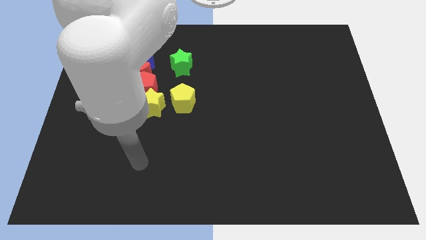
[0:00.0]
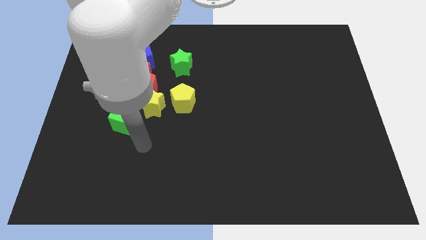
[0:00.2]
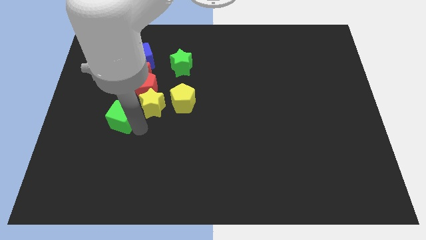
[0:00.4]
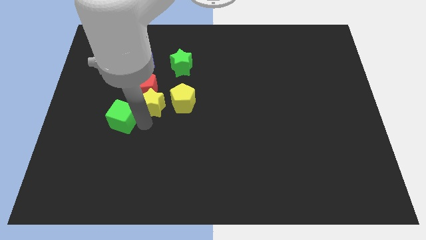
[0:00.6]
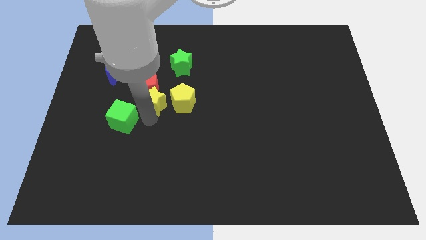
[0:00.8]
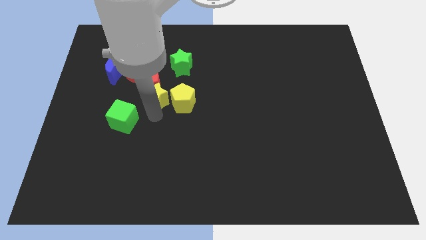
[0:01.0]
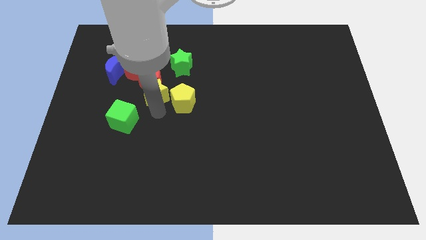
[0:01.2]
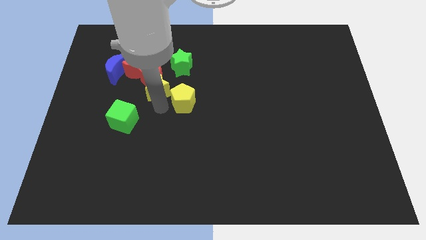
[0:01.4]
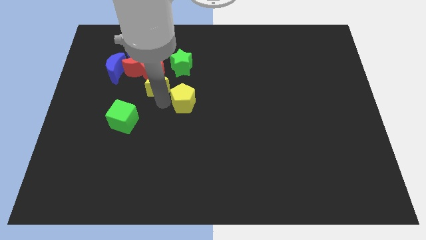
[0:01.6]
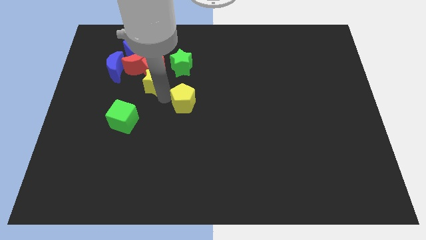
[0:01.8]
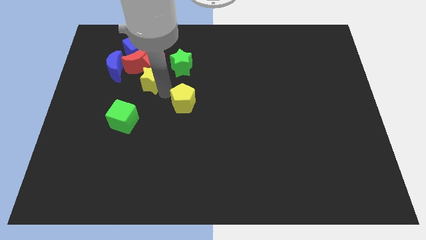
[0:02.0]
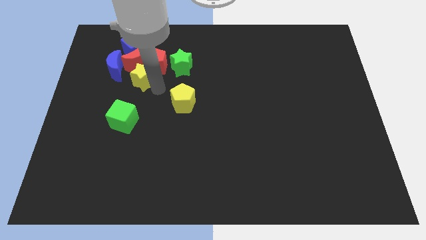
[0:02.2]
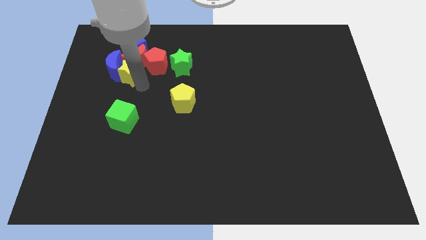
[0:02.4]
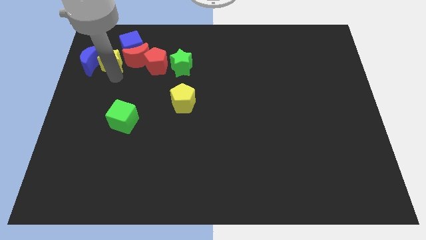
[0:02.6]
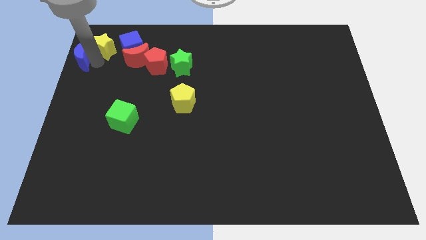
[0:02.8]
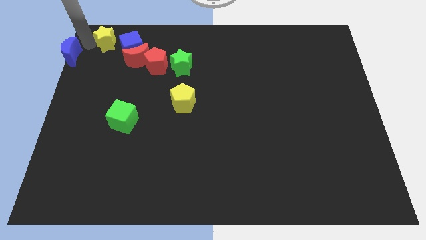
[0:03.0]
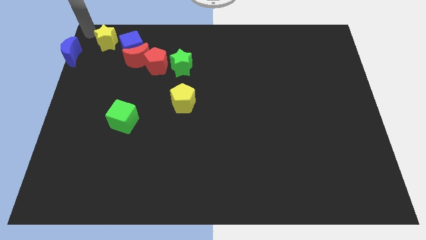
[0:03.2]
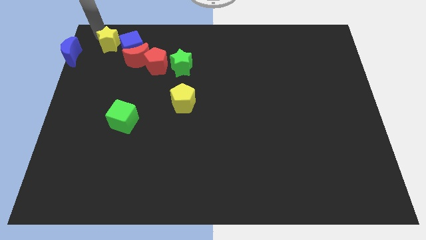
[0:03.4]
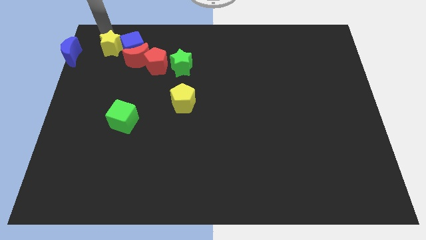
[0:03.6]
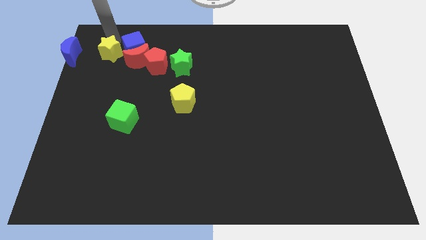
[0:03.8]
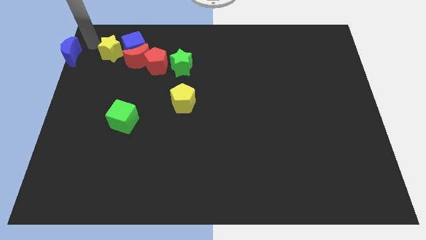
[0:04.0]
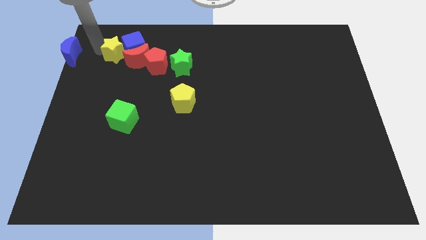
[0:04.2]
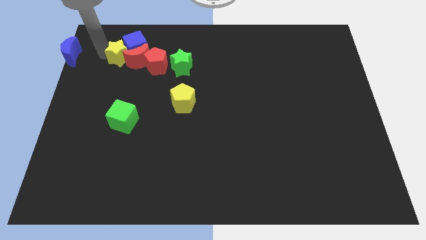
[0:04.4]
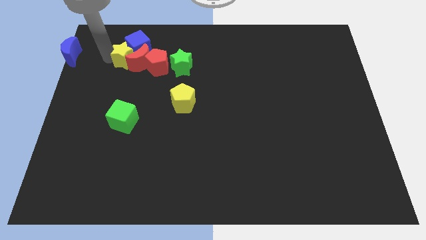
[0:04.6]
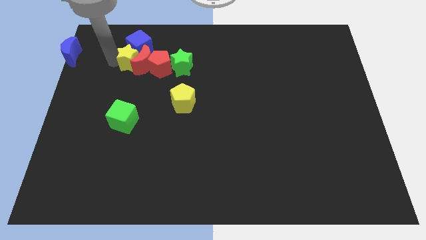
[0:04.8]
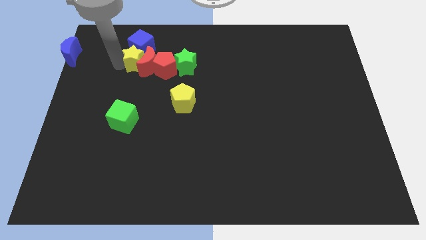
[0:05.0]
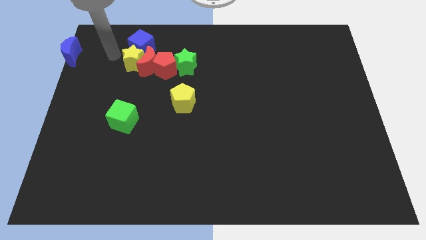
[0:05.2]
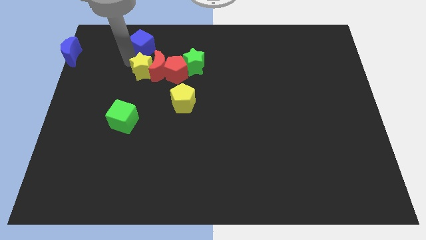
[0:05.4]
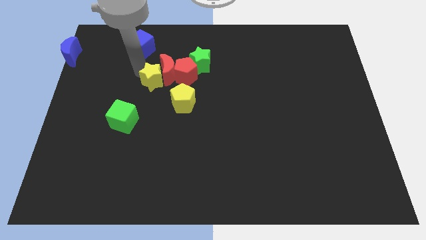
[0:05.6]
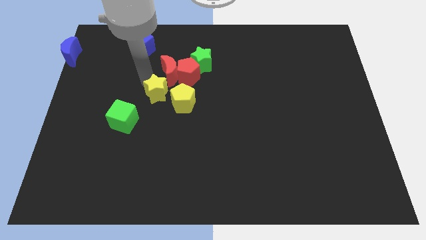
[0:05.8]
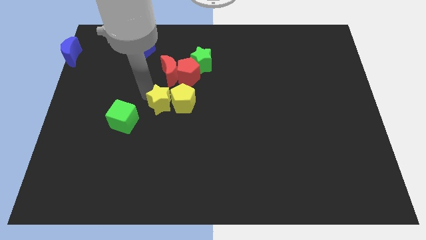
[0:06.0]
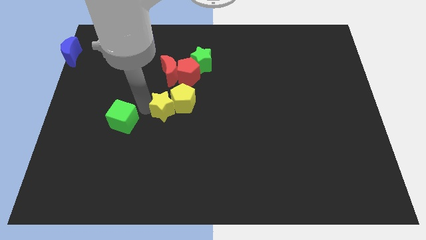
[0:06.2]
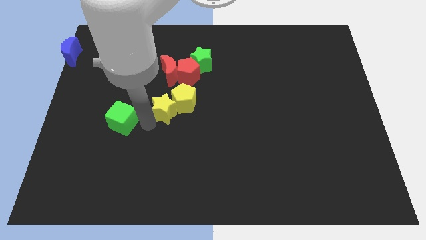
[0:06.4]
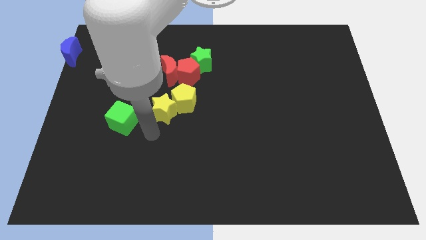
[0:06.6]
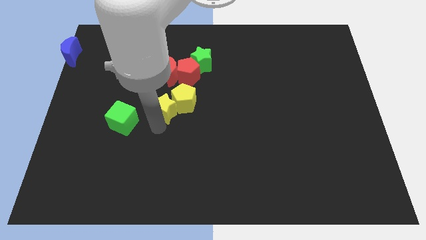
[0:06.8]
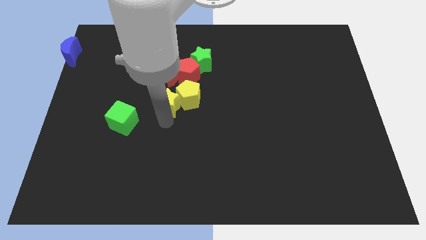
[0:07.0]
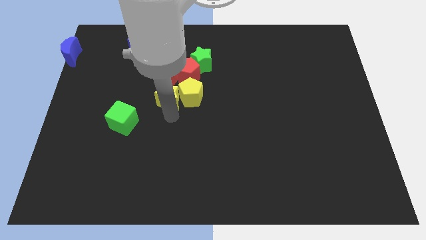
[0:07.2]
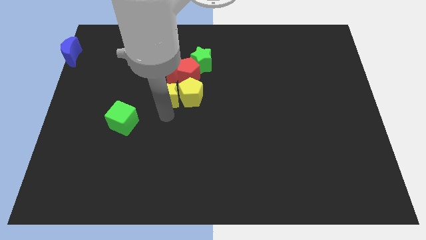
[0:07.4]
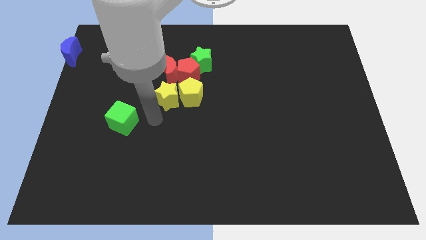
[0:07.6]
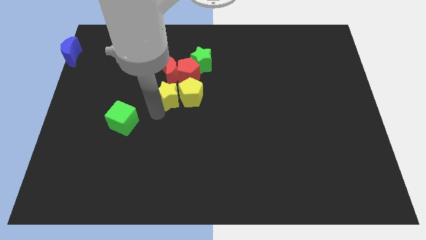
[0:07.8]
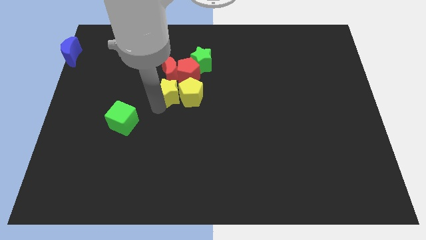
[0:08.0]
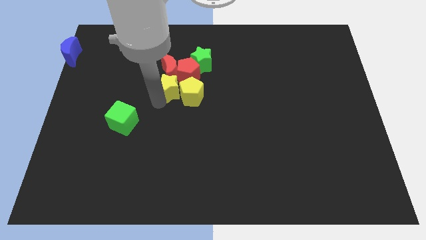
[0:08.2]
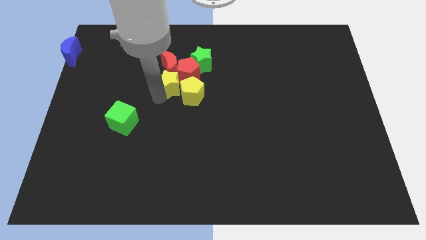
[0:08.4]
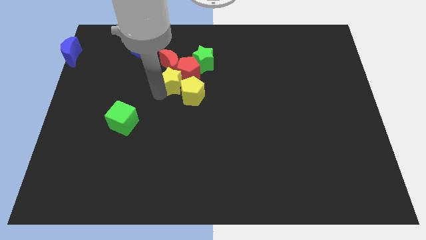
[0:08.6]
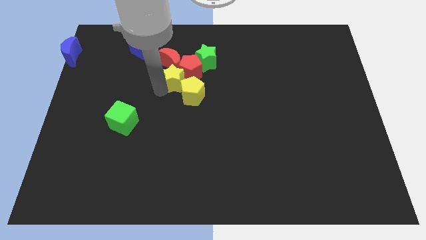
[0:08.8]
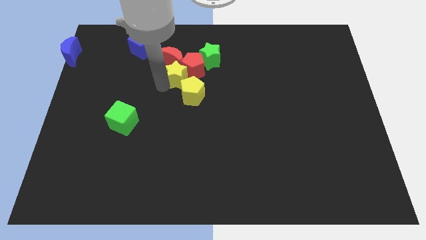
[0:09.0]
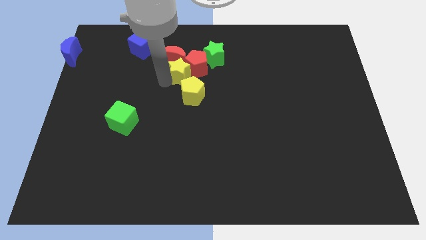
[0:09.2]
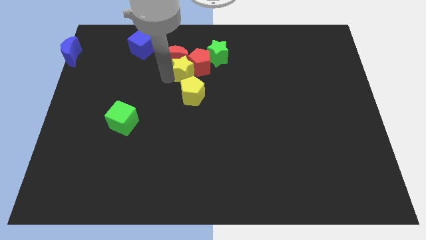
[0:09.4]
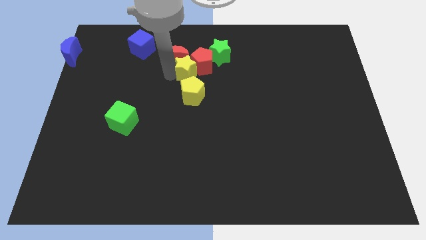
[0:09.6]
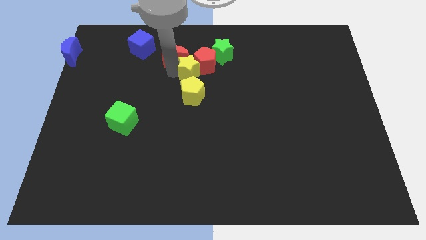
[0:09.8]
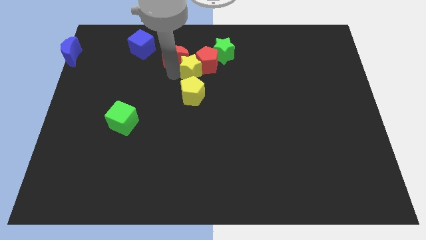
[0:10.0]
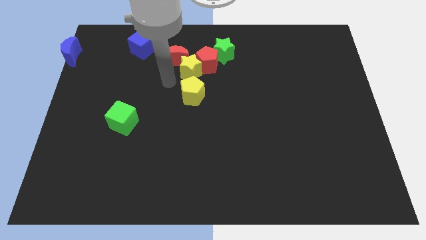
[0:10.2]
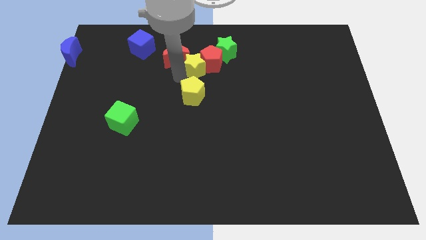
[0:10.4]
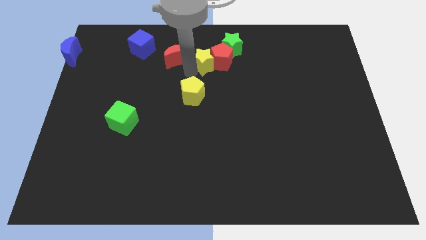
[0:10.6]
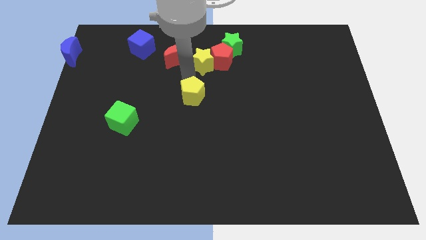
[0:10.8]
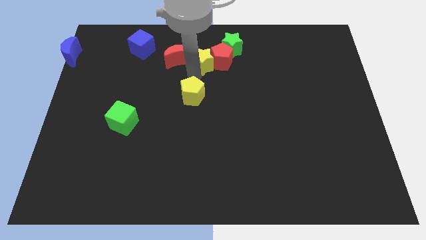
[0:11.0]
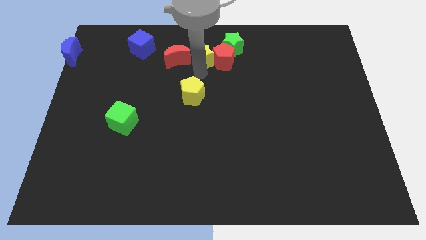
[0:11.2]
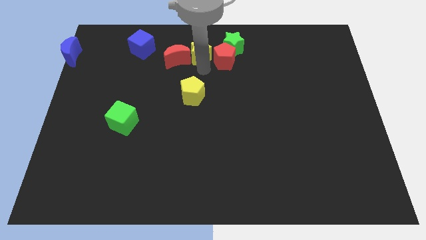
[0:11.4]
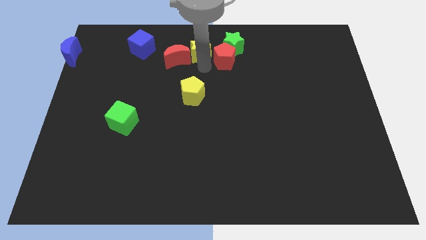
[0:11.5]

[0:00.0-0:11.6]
move the yellow star to the top
